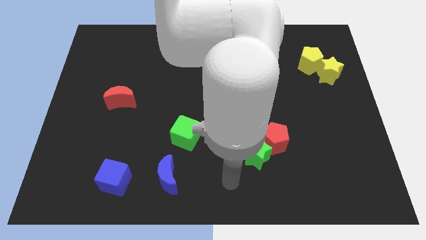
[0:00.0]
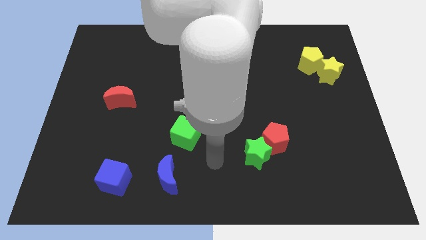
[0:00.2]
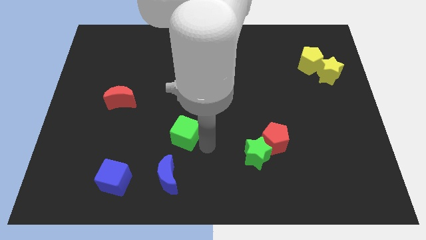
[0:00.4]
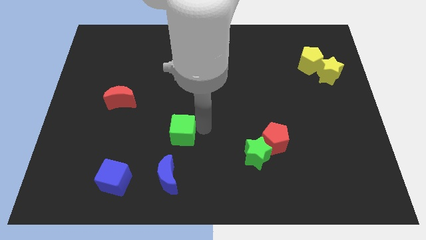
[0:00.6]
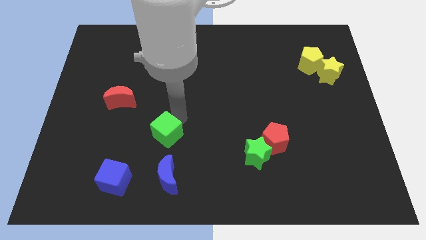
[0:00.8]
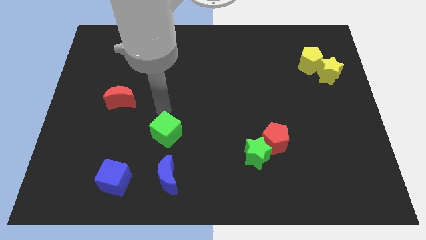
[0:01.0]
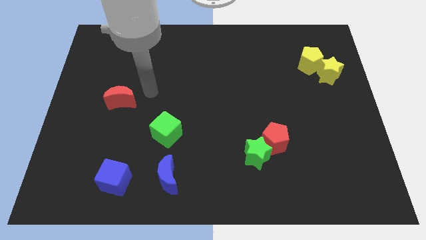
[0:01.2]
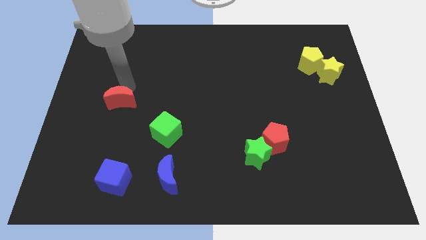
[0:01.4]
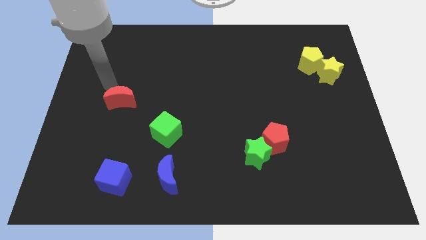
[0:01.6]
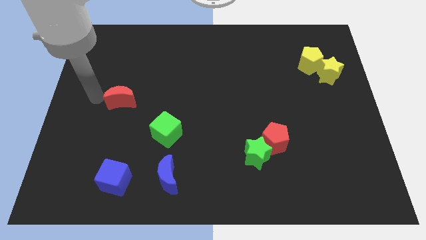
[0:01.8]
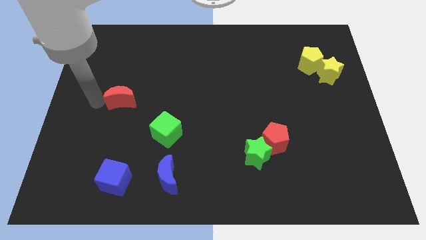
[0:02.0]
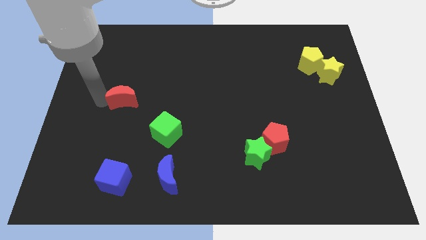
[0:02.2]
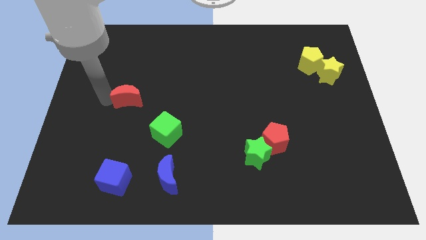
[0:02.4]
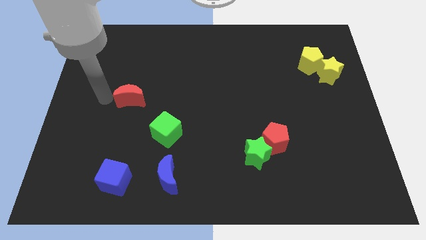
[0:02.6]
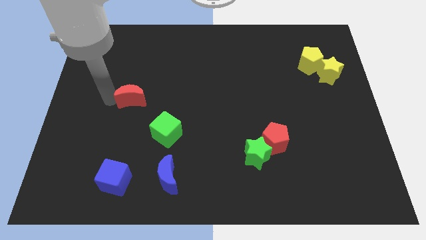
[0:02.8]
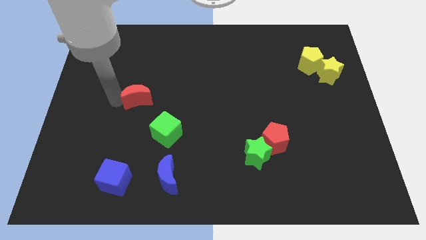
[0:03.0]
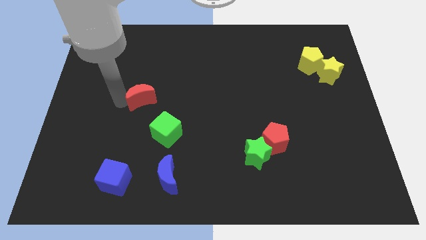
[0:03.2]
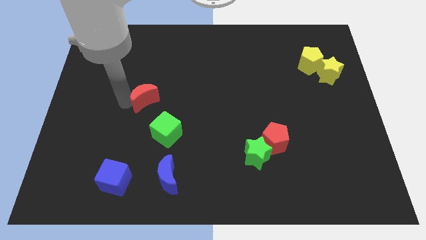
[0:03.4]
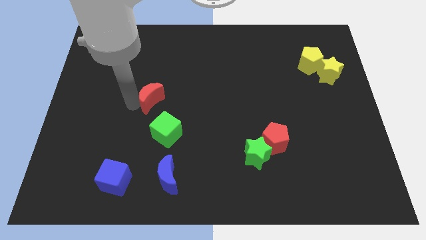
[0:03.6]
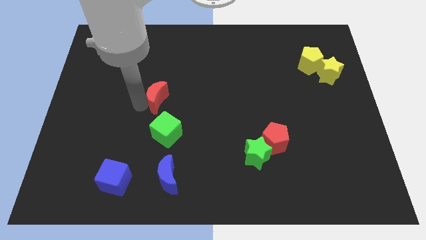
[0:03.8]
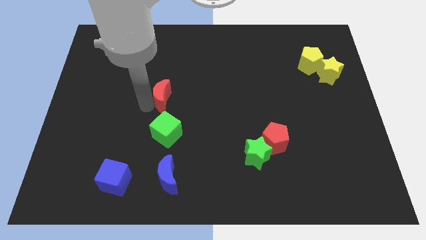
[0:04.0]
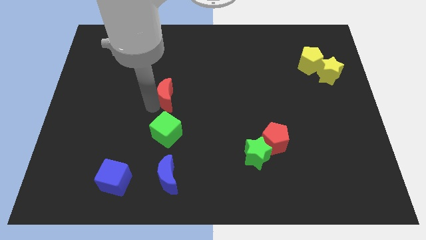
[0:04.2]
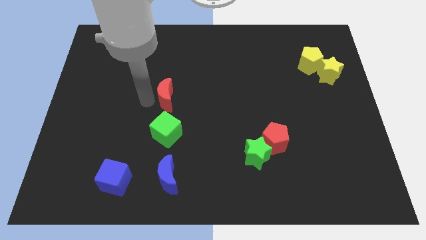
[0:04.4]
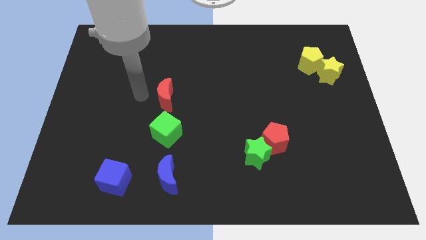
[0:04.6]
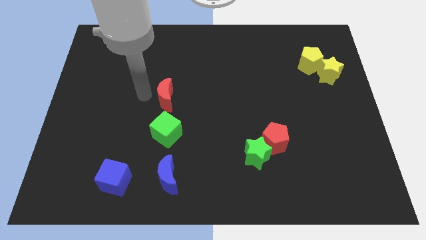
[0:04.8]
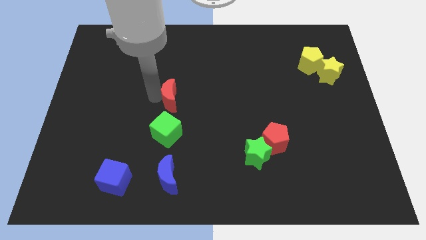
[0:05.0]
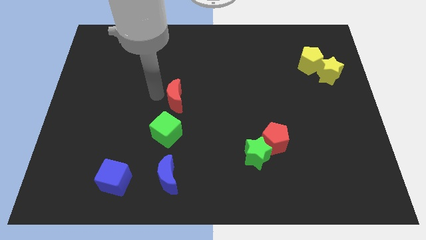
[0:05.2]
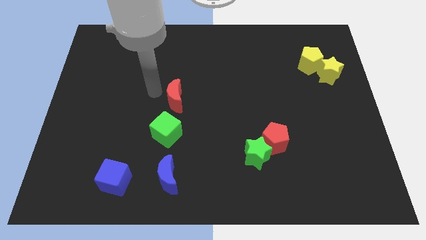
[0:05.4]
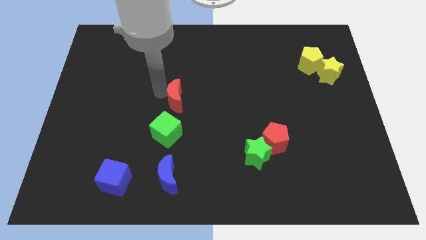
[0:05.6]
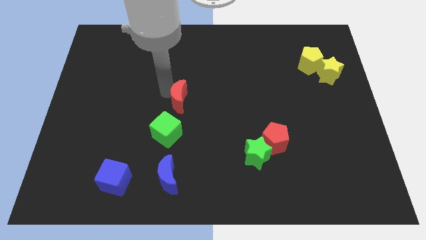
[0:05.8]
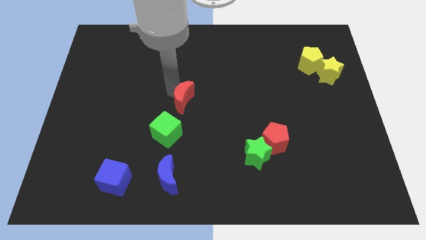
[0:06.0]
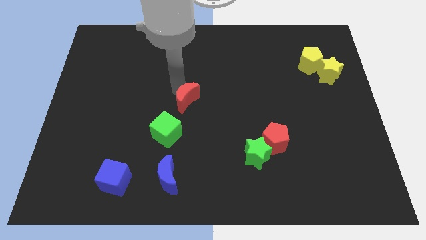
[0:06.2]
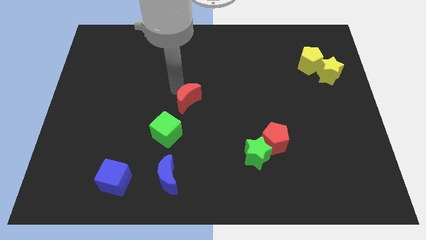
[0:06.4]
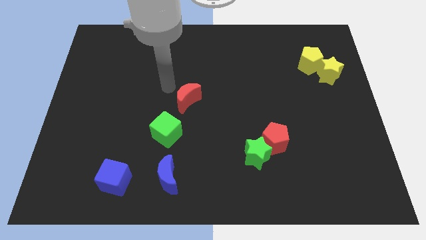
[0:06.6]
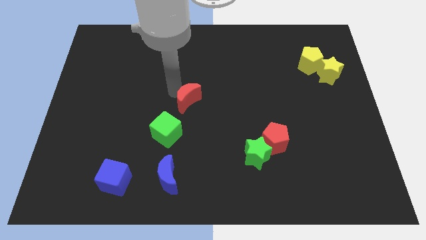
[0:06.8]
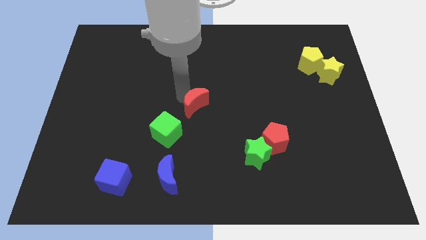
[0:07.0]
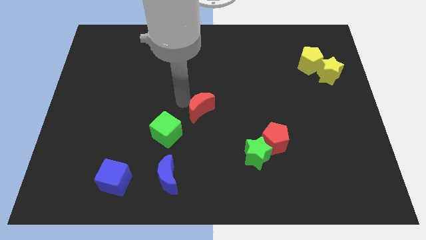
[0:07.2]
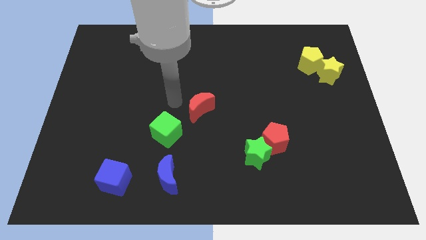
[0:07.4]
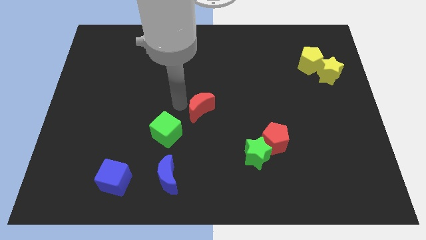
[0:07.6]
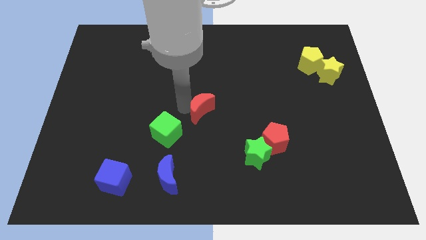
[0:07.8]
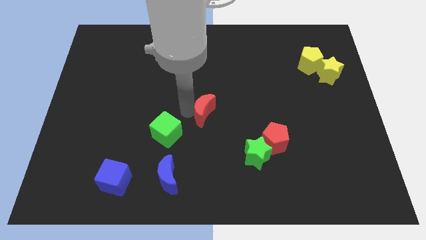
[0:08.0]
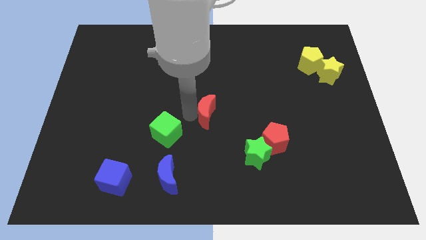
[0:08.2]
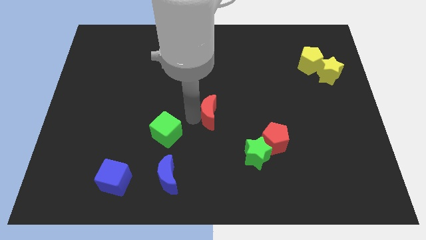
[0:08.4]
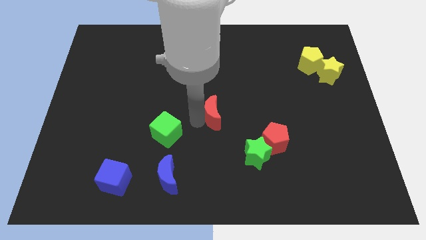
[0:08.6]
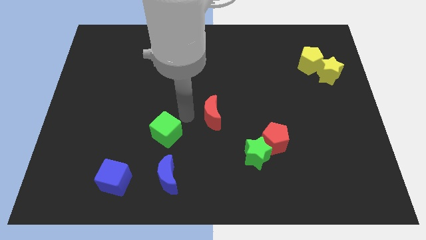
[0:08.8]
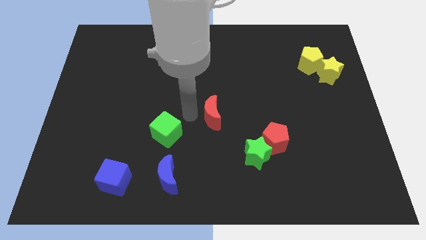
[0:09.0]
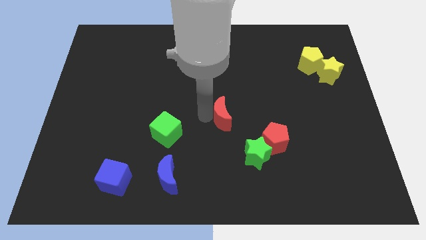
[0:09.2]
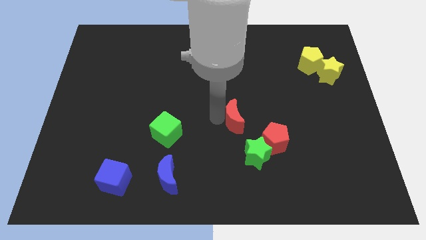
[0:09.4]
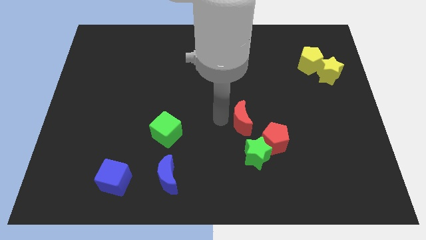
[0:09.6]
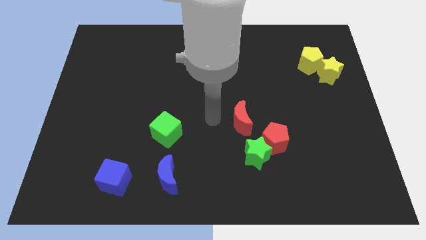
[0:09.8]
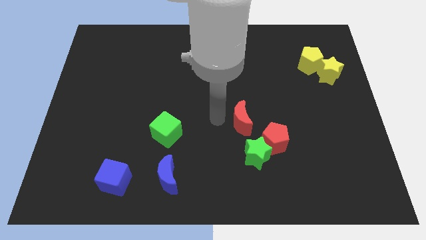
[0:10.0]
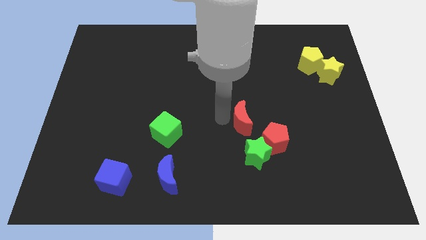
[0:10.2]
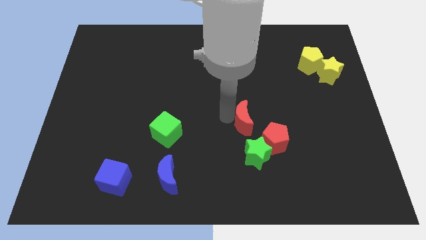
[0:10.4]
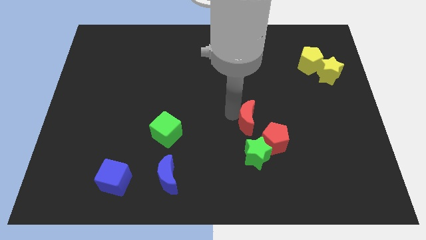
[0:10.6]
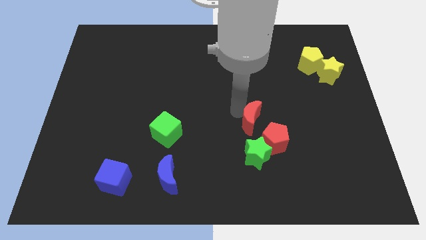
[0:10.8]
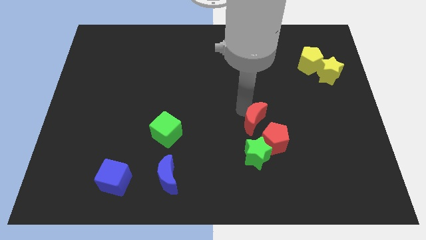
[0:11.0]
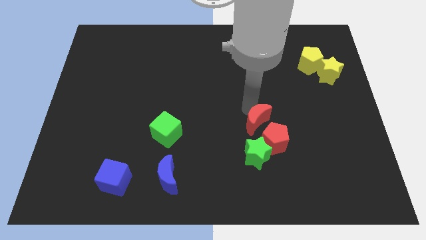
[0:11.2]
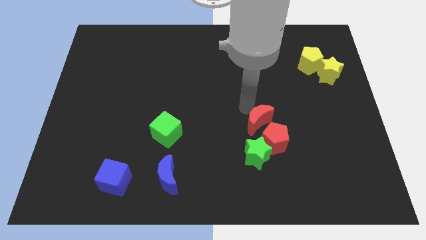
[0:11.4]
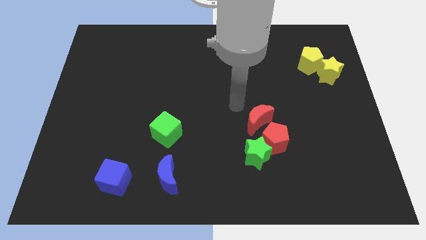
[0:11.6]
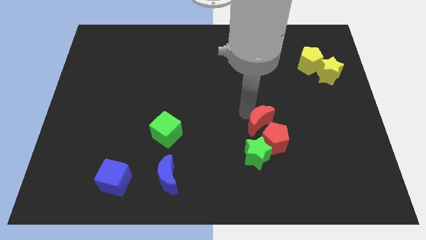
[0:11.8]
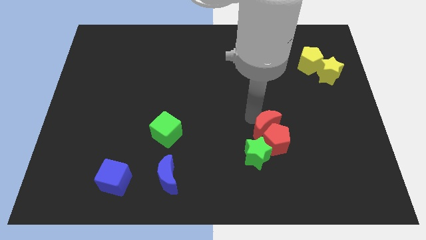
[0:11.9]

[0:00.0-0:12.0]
move the red moon to the top right of the green star
